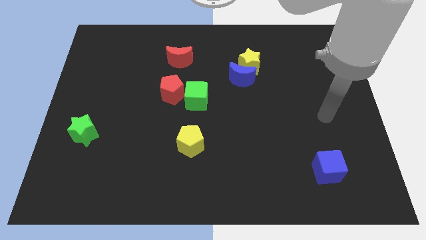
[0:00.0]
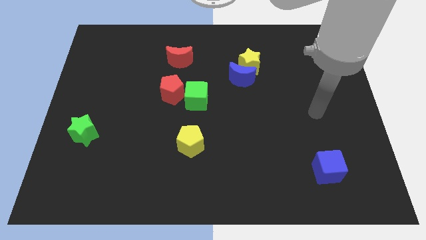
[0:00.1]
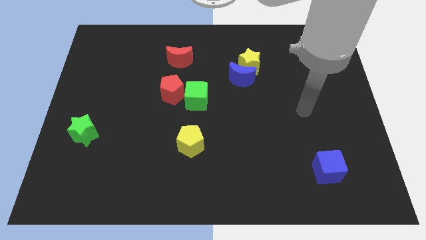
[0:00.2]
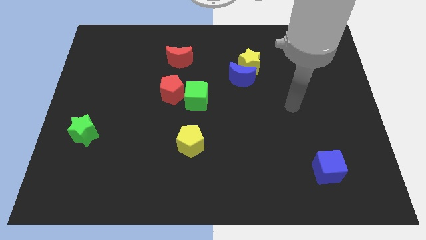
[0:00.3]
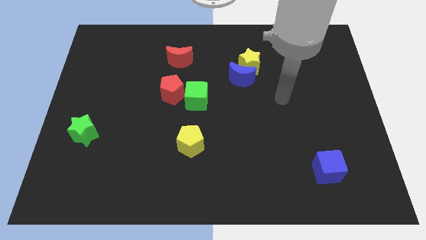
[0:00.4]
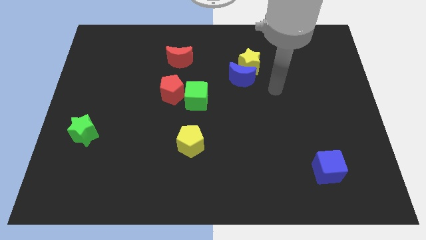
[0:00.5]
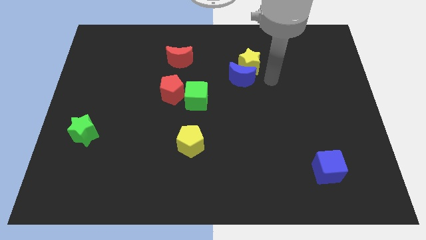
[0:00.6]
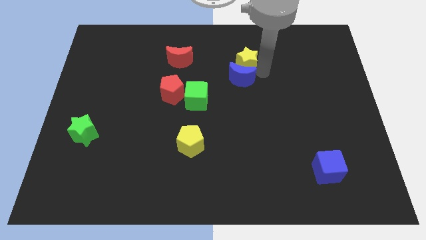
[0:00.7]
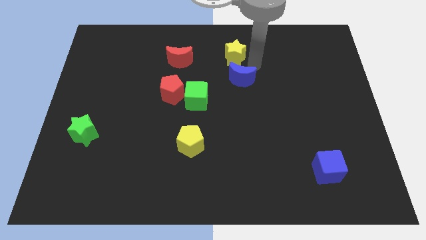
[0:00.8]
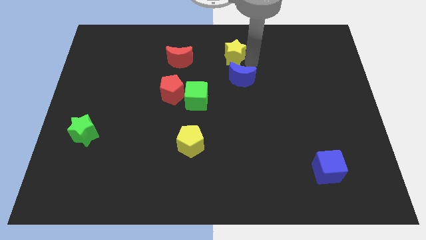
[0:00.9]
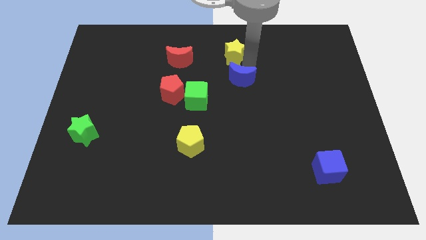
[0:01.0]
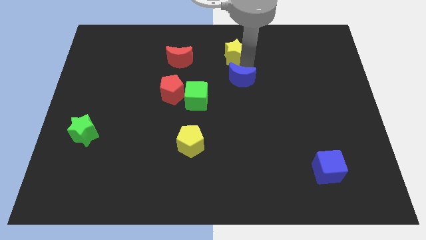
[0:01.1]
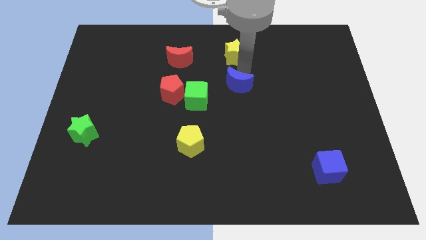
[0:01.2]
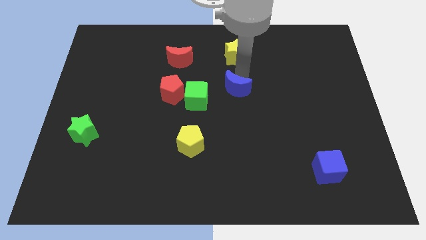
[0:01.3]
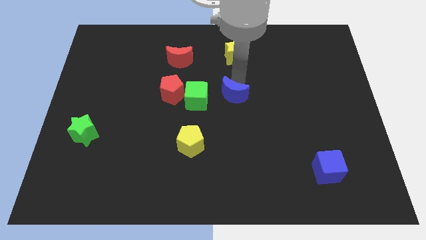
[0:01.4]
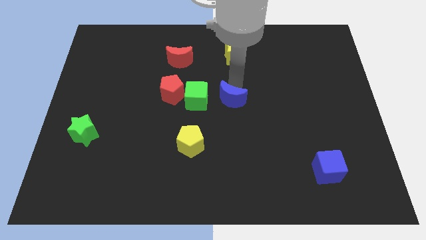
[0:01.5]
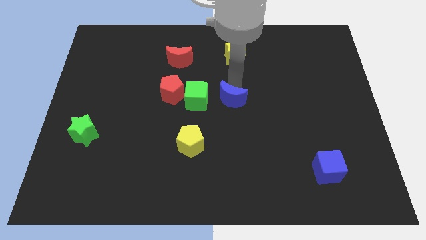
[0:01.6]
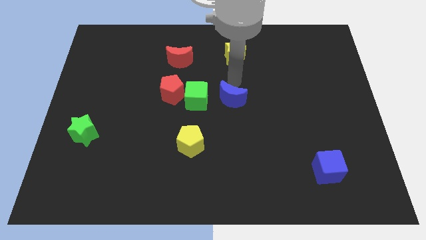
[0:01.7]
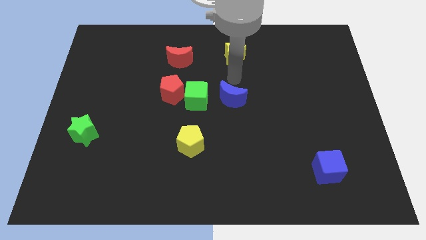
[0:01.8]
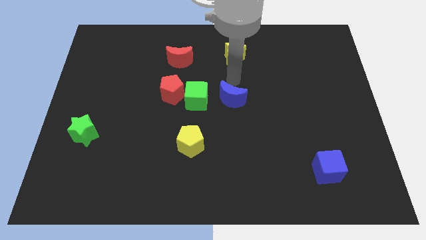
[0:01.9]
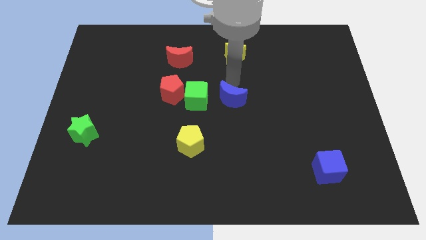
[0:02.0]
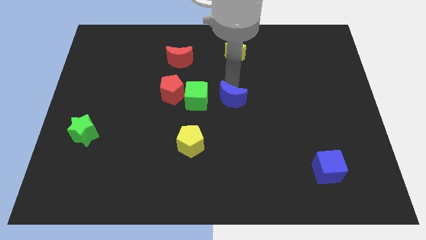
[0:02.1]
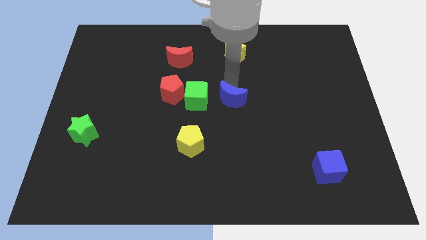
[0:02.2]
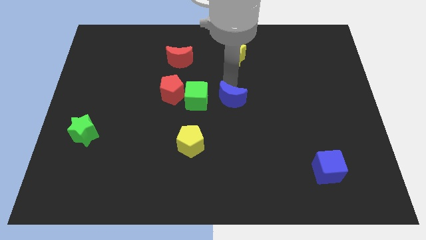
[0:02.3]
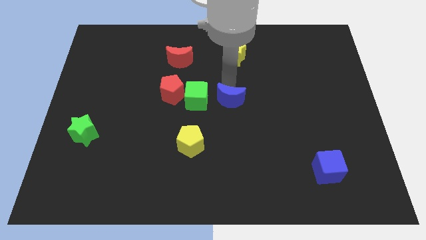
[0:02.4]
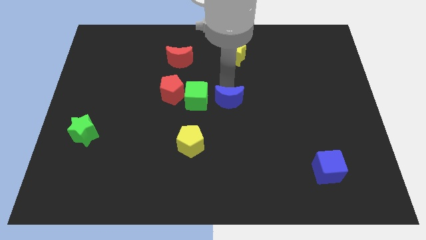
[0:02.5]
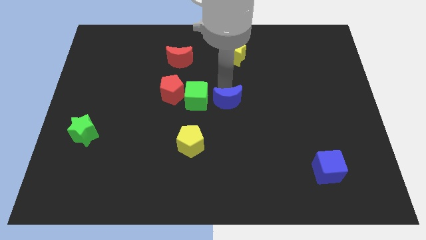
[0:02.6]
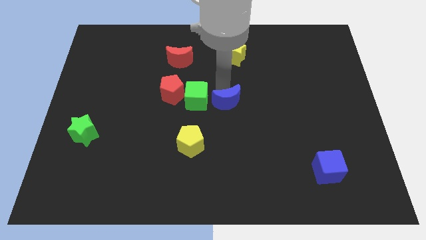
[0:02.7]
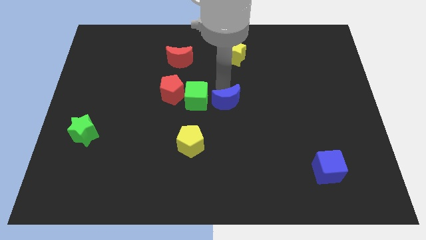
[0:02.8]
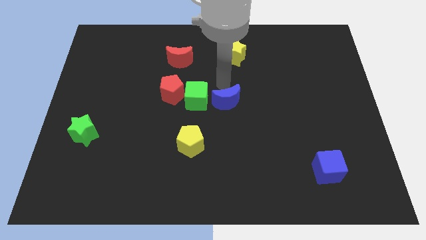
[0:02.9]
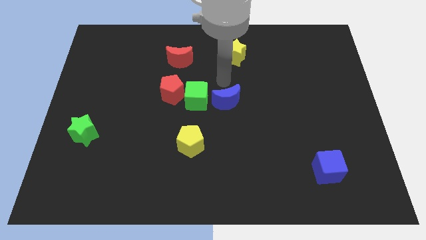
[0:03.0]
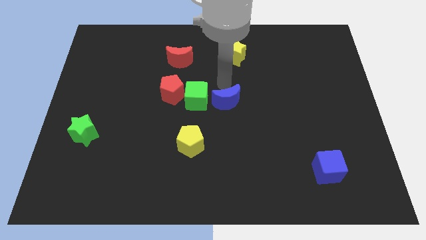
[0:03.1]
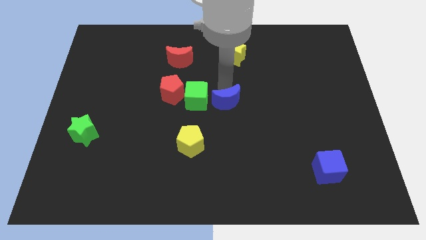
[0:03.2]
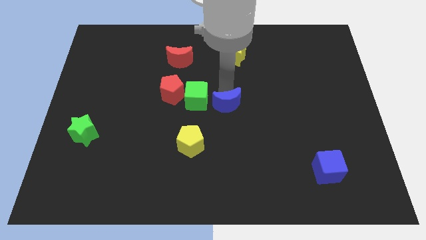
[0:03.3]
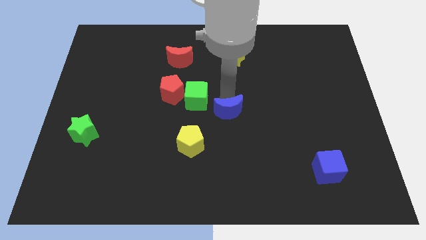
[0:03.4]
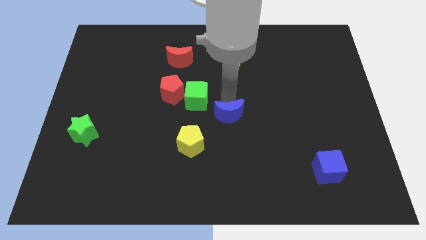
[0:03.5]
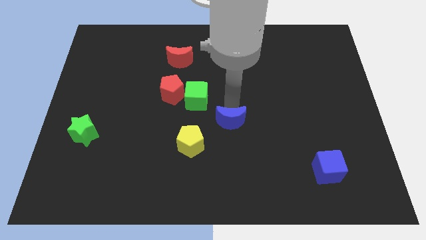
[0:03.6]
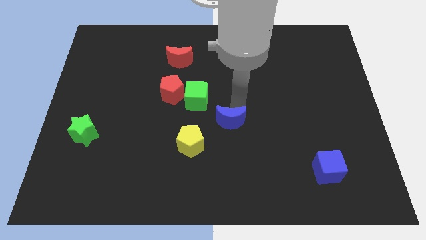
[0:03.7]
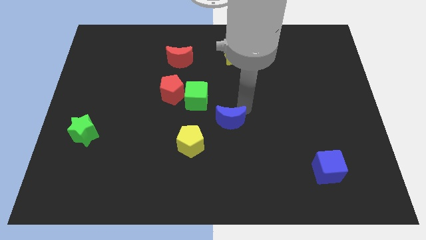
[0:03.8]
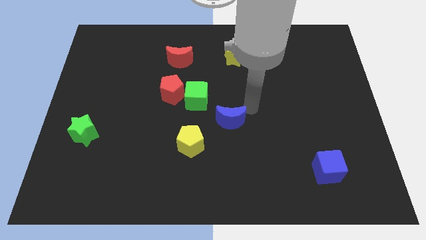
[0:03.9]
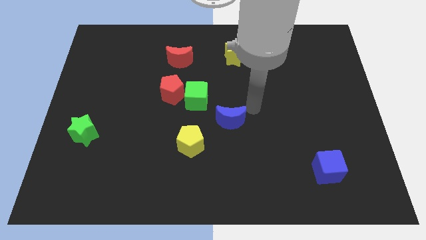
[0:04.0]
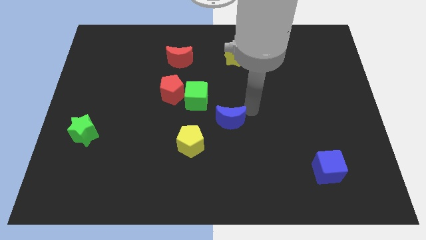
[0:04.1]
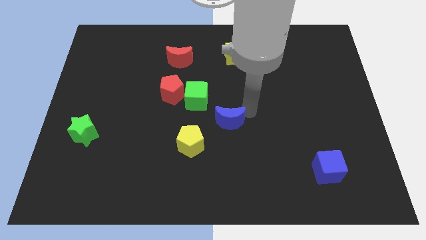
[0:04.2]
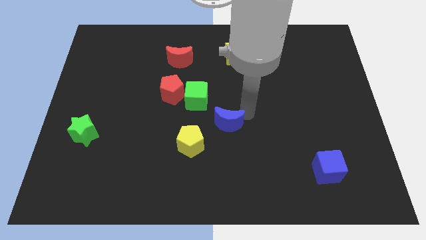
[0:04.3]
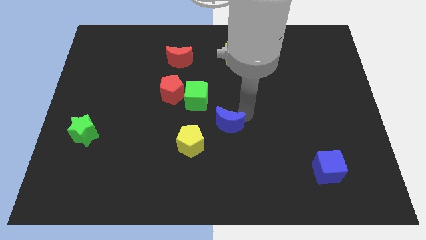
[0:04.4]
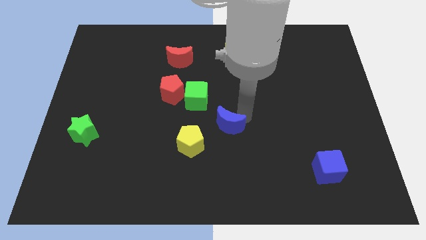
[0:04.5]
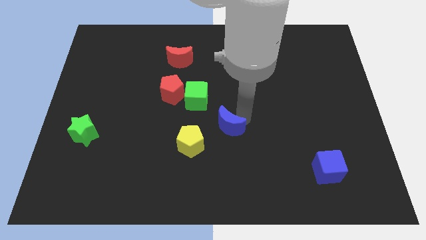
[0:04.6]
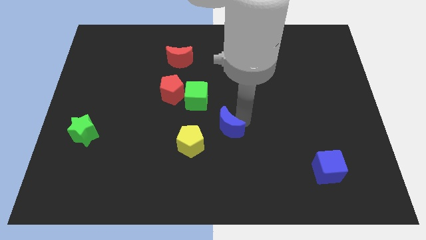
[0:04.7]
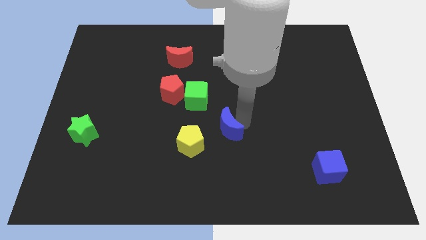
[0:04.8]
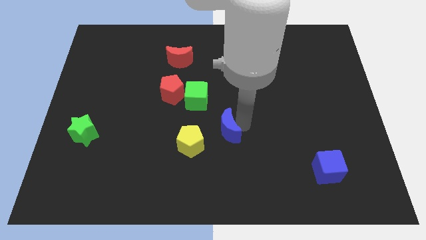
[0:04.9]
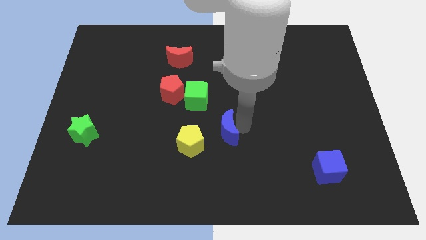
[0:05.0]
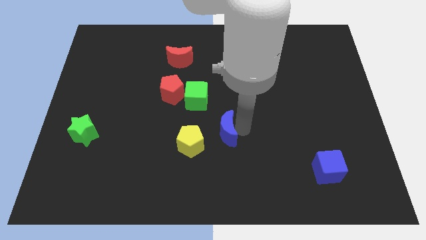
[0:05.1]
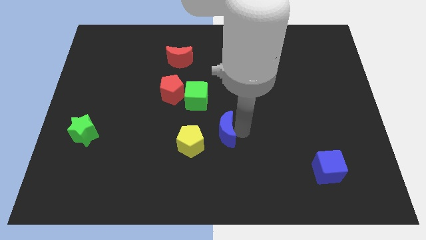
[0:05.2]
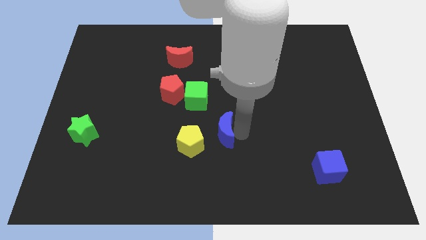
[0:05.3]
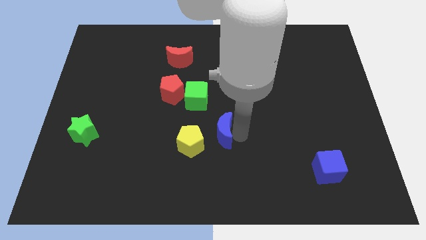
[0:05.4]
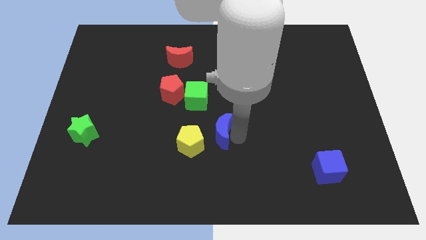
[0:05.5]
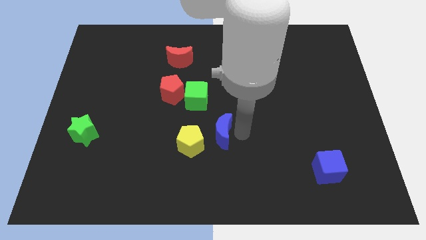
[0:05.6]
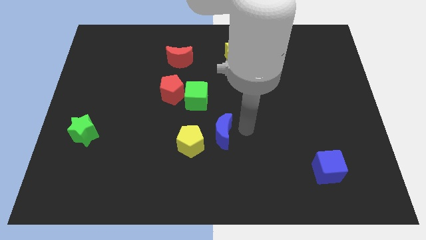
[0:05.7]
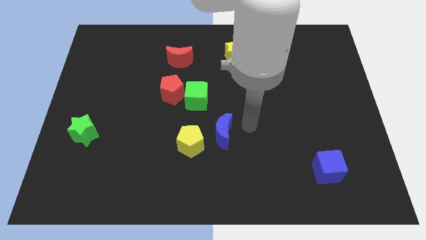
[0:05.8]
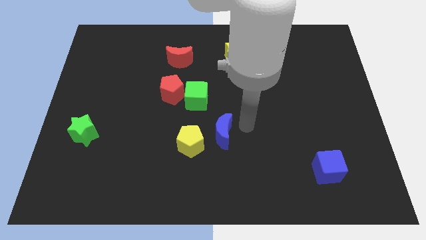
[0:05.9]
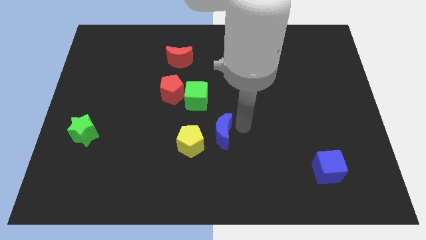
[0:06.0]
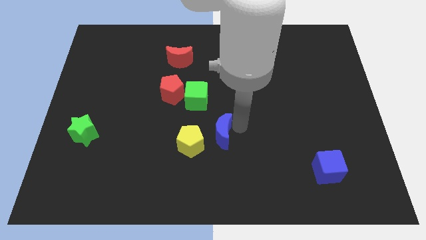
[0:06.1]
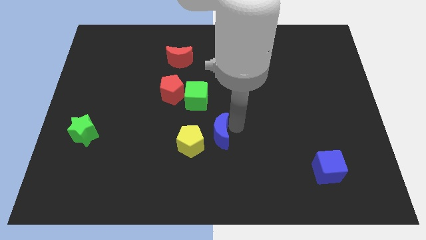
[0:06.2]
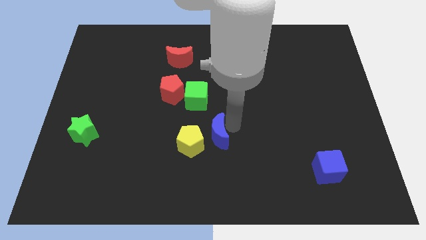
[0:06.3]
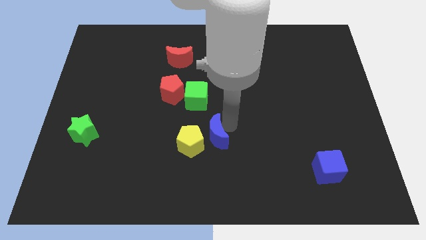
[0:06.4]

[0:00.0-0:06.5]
slide the blue moon to the yellow pentagon

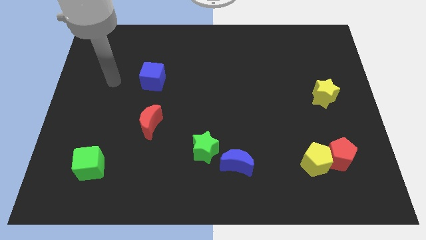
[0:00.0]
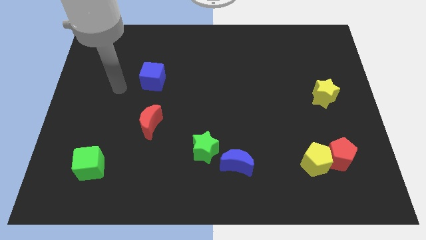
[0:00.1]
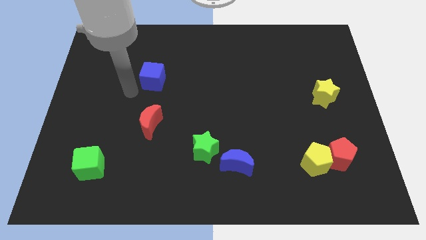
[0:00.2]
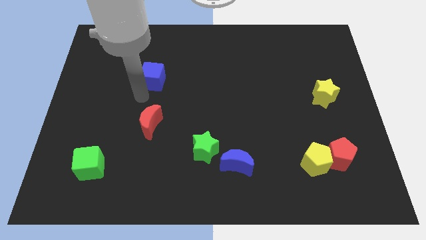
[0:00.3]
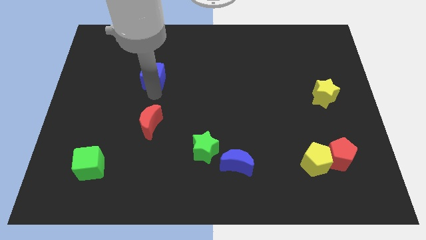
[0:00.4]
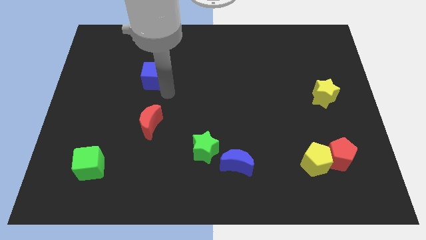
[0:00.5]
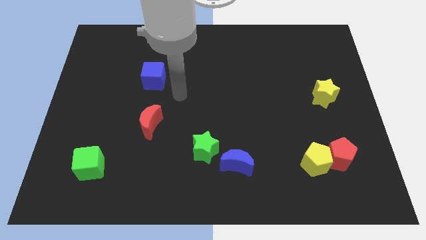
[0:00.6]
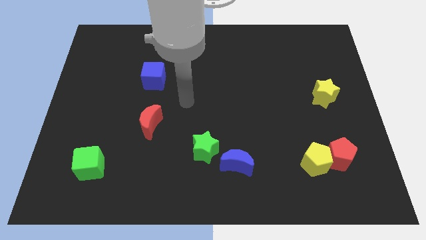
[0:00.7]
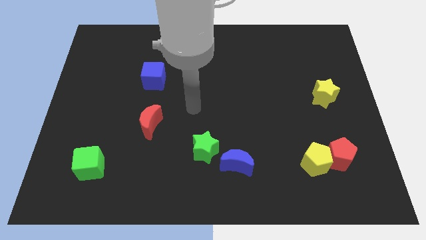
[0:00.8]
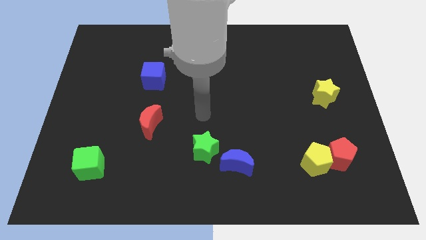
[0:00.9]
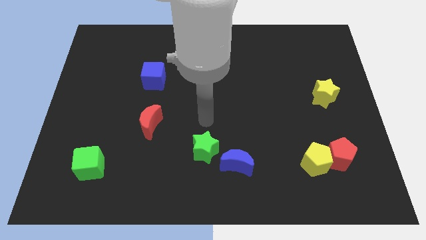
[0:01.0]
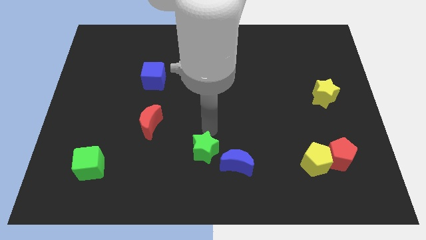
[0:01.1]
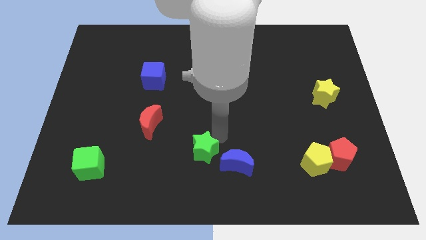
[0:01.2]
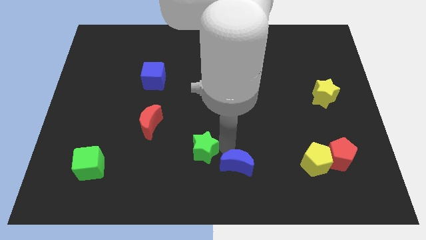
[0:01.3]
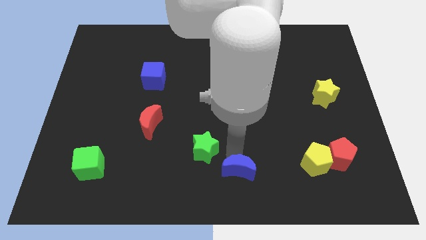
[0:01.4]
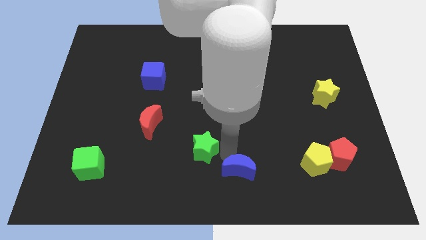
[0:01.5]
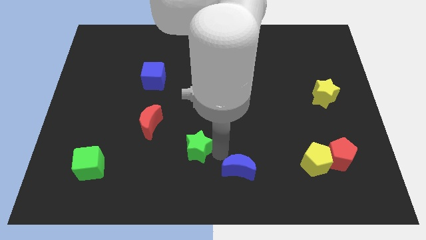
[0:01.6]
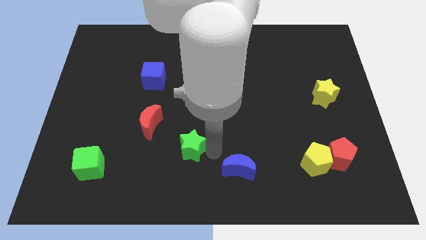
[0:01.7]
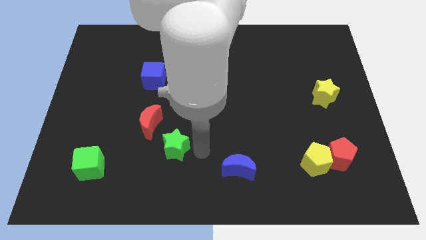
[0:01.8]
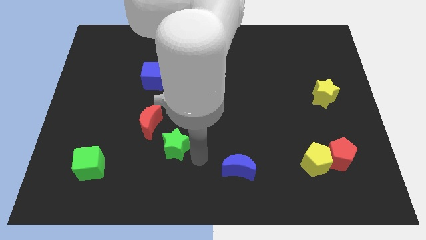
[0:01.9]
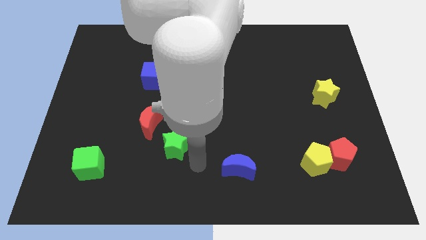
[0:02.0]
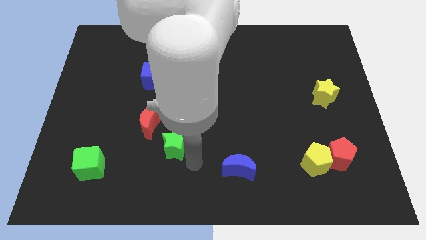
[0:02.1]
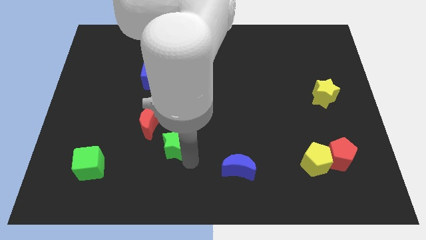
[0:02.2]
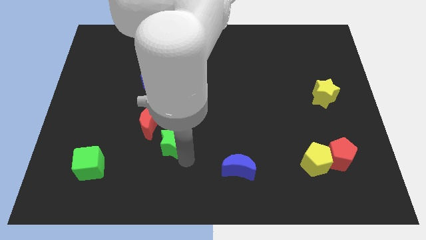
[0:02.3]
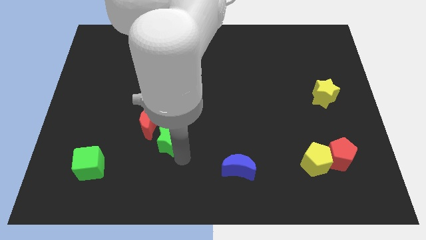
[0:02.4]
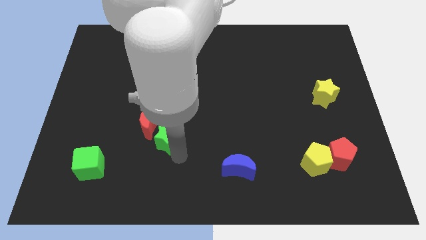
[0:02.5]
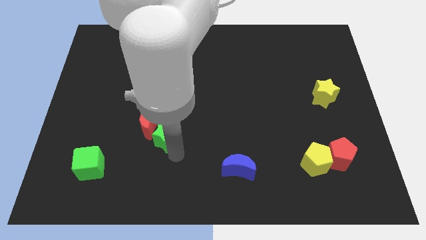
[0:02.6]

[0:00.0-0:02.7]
push the green star close to the red moon
